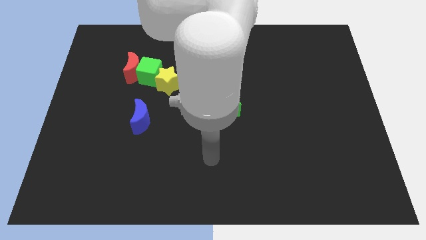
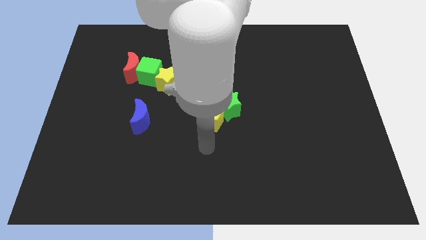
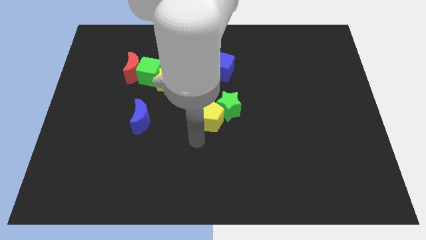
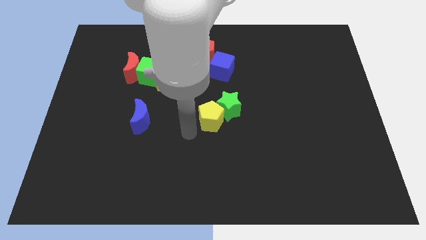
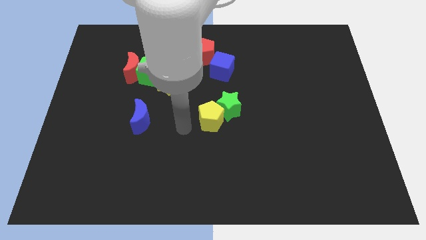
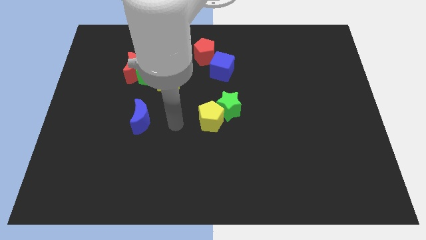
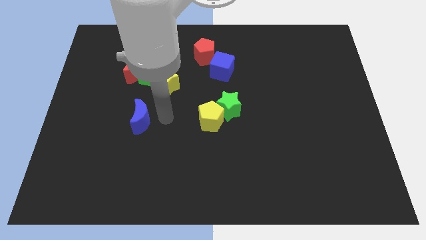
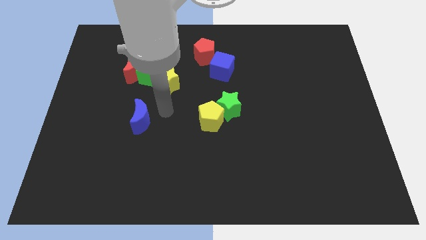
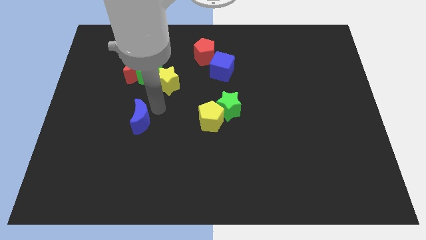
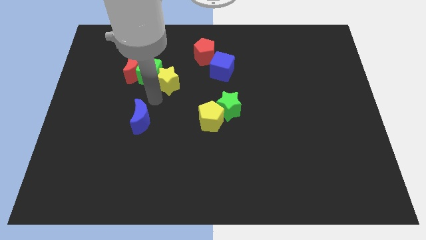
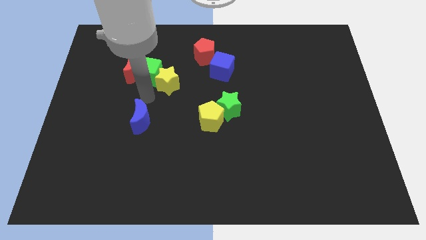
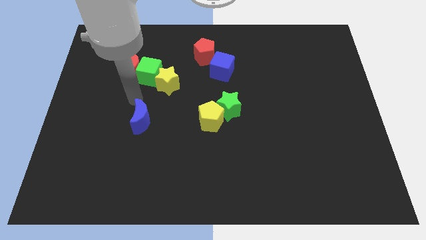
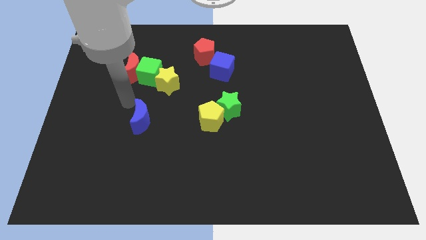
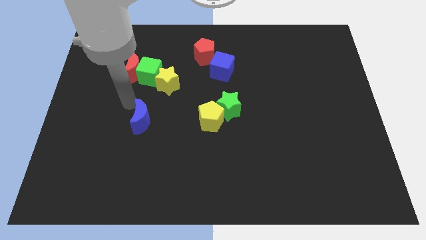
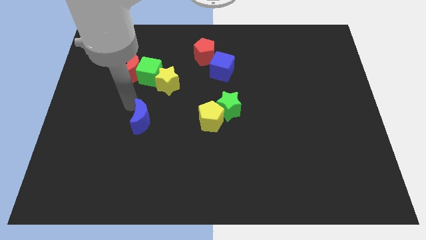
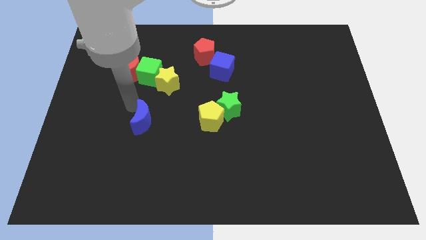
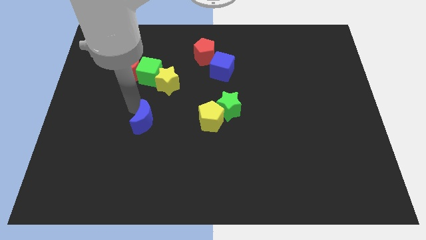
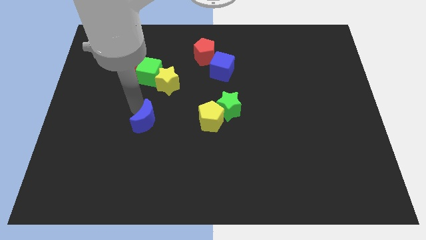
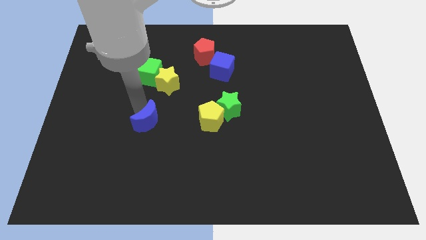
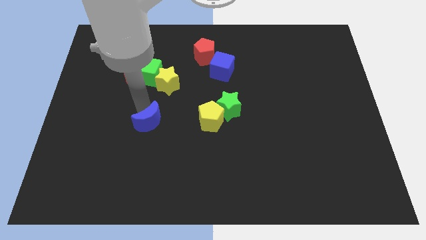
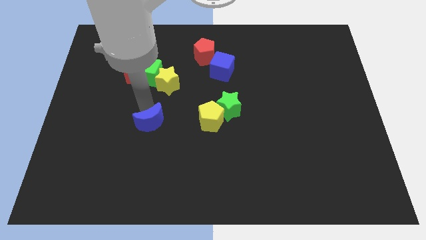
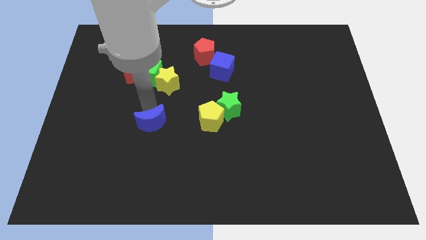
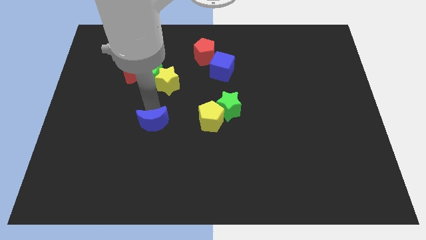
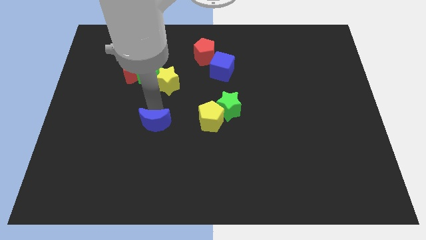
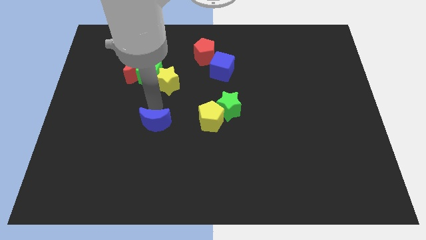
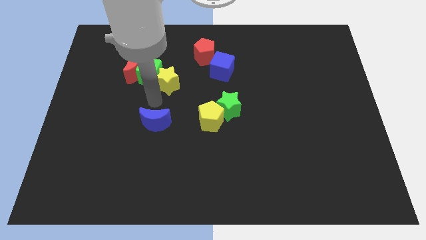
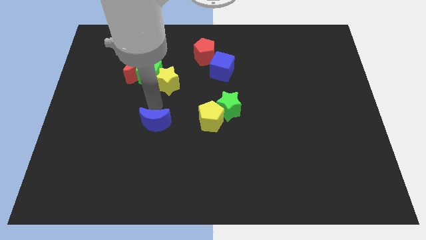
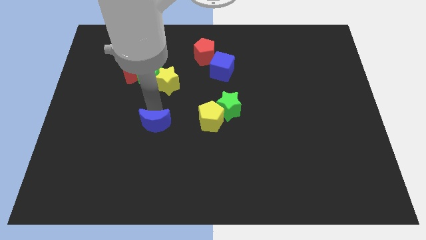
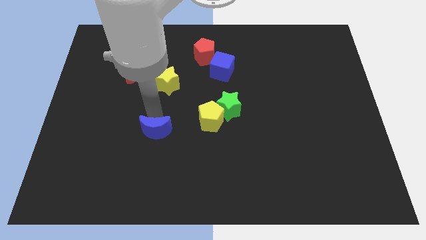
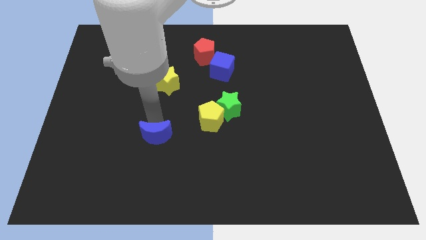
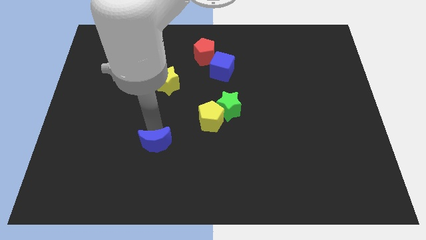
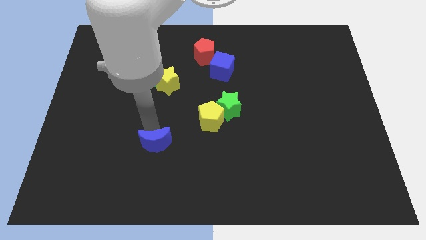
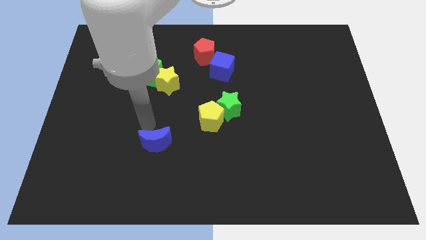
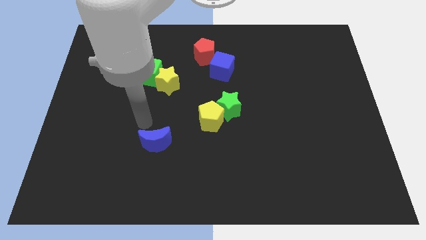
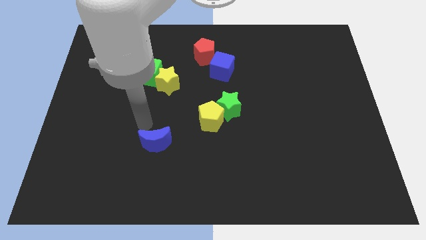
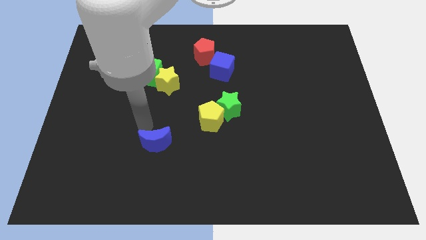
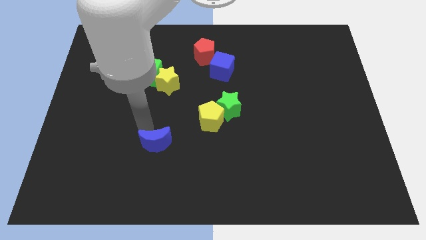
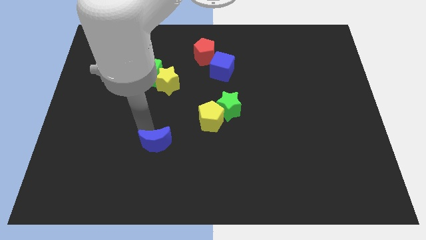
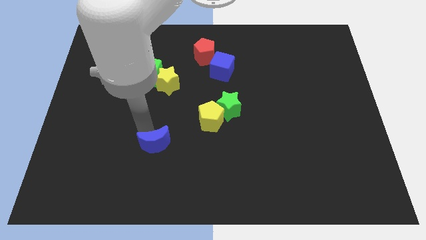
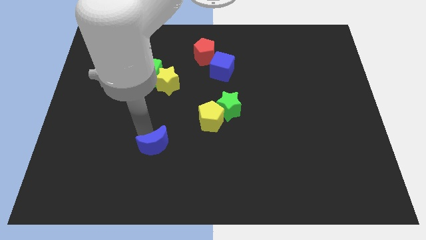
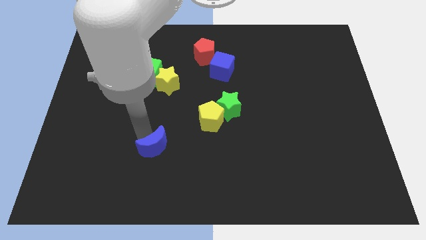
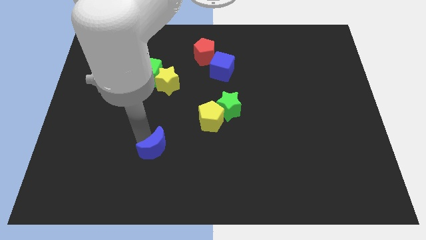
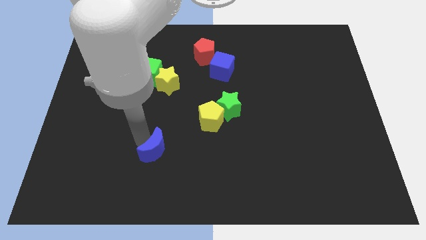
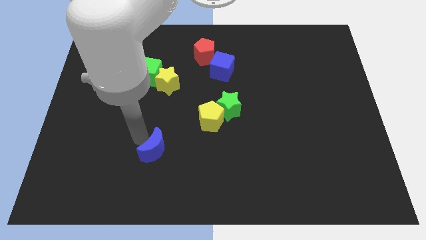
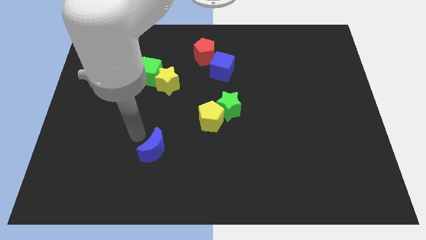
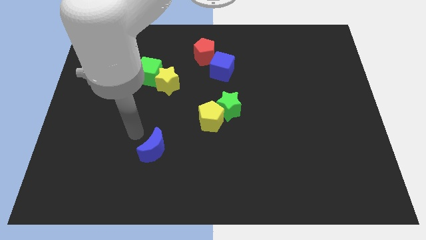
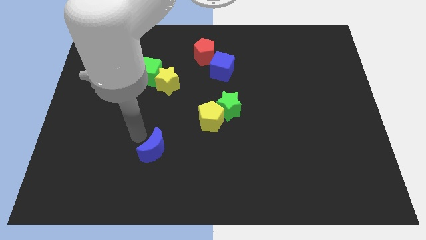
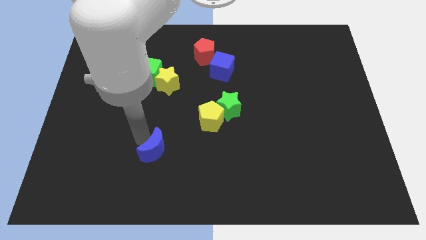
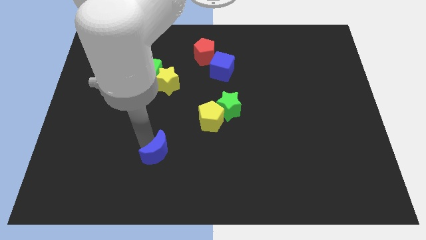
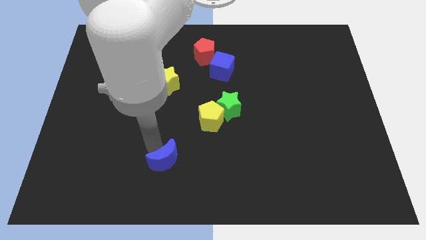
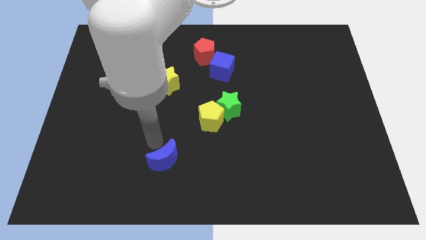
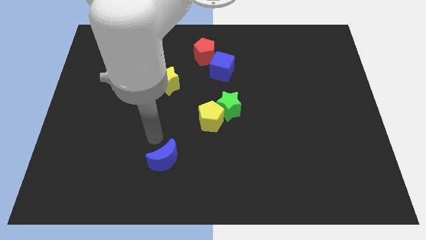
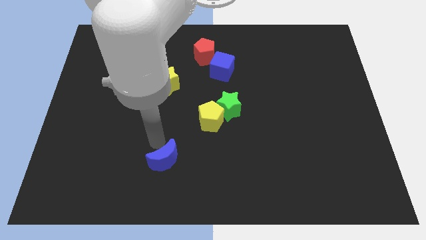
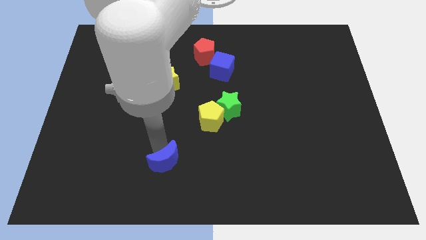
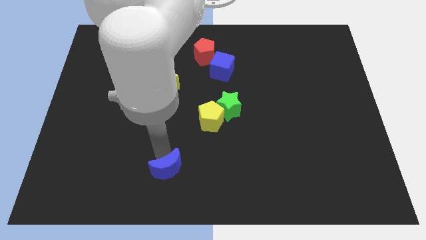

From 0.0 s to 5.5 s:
put the blue moon to the bottom side

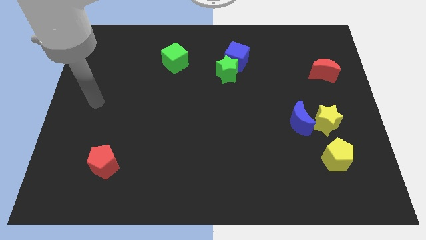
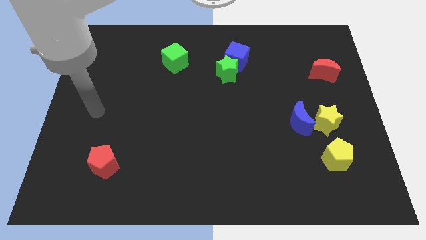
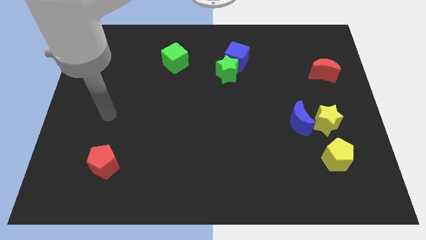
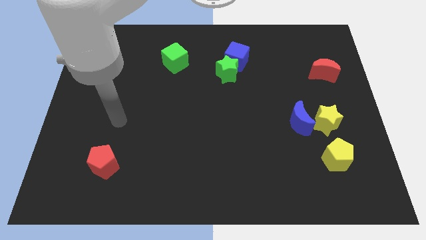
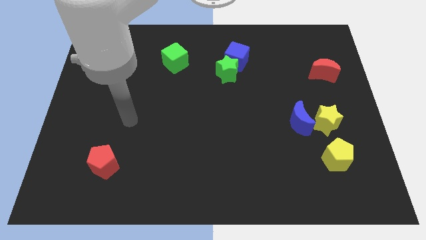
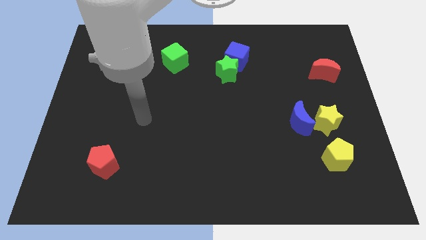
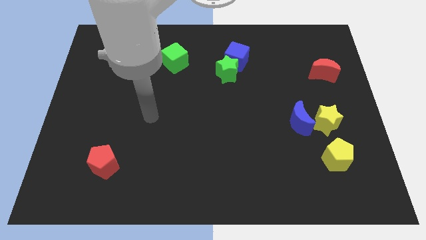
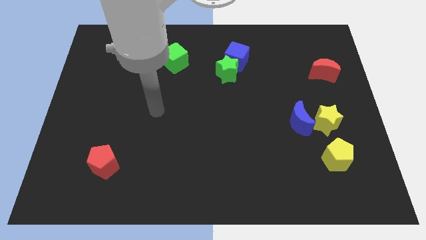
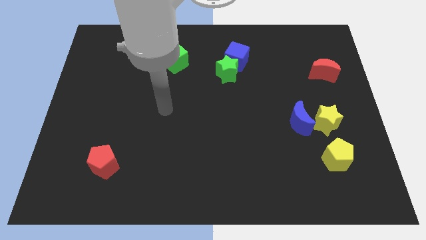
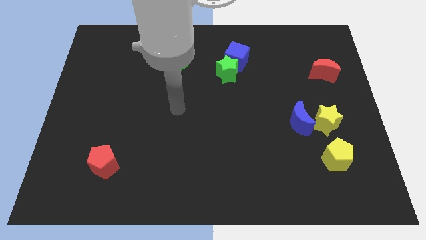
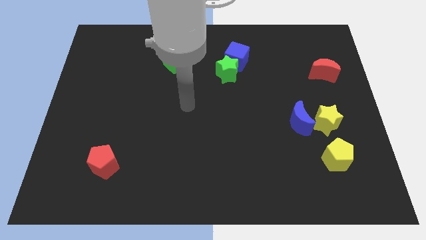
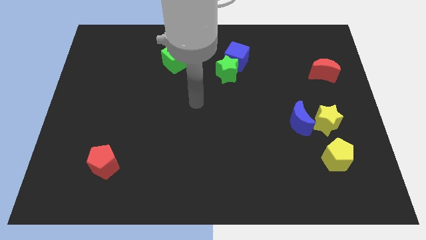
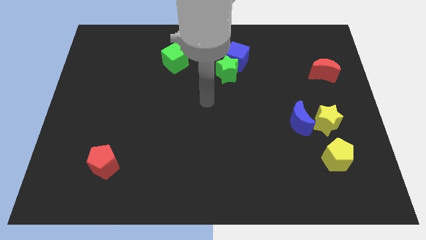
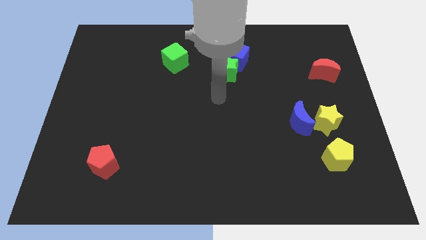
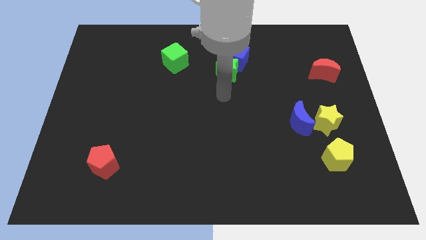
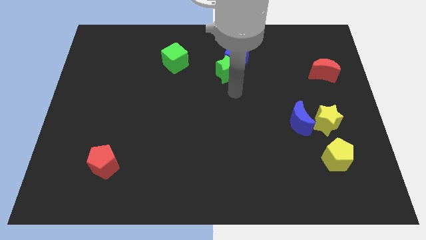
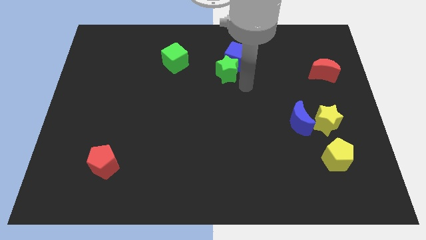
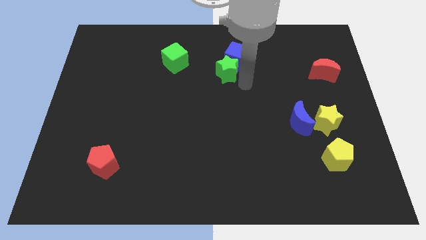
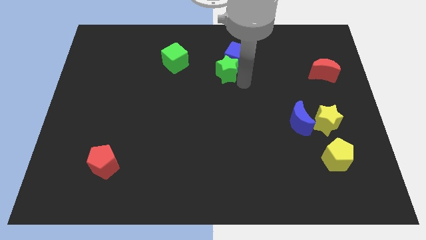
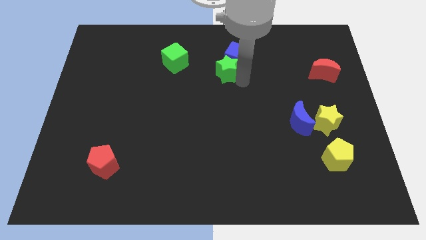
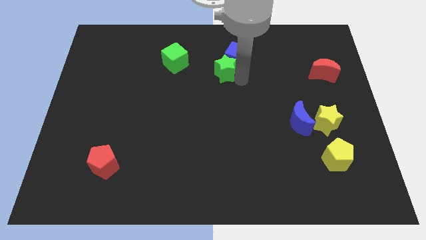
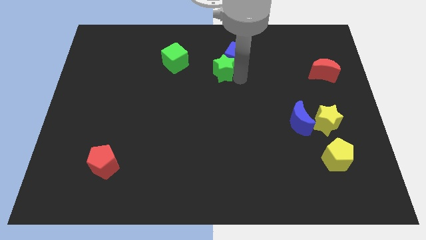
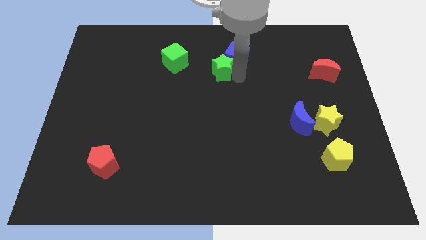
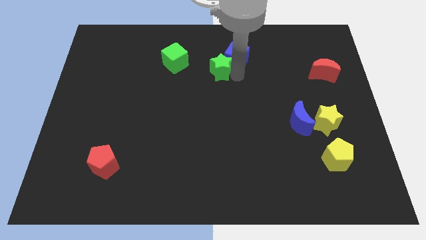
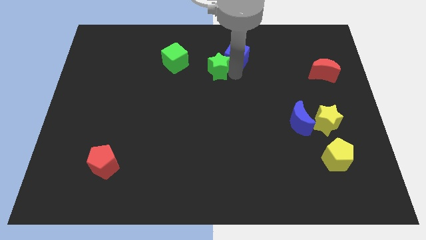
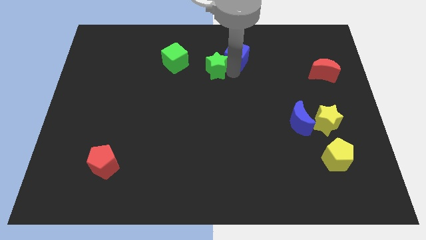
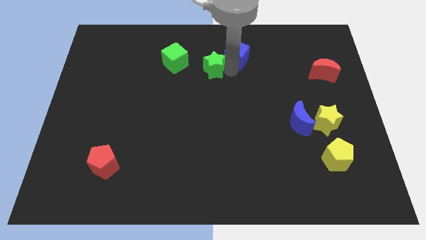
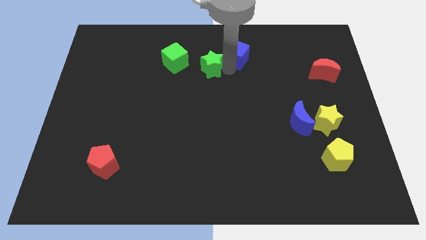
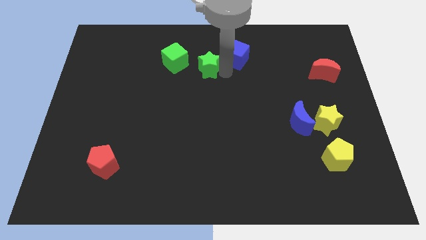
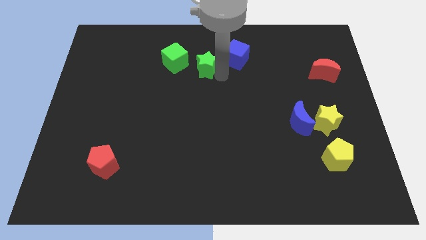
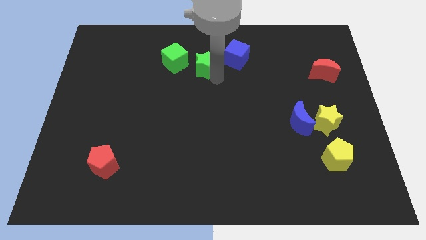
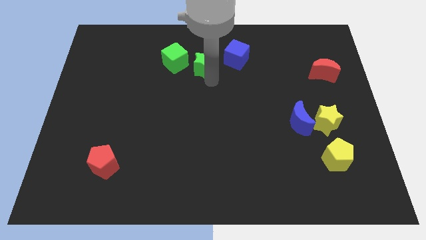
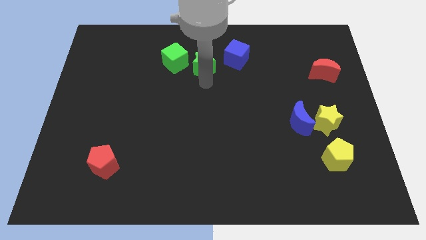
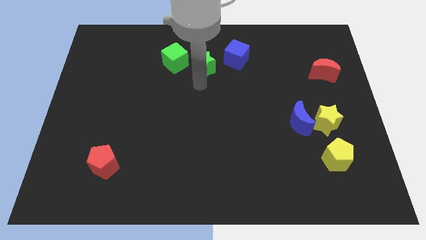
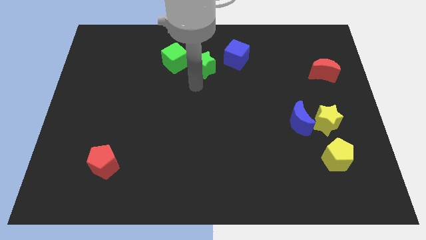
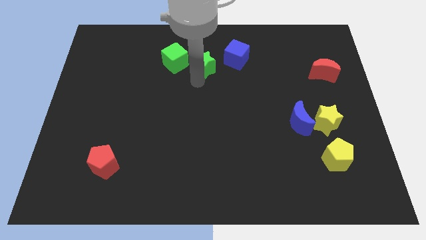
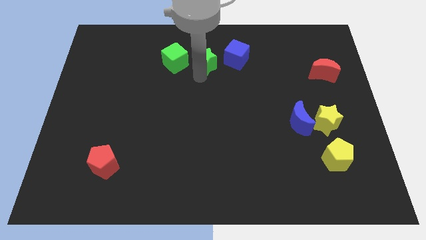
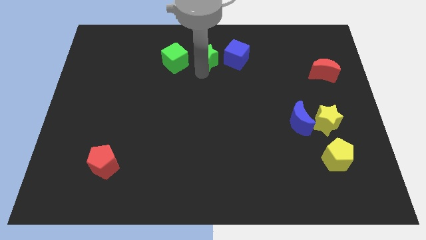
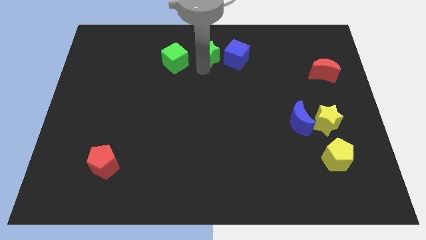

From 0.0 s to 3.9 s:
move the green star to the towards your base
